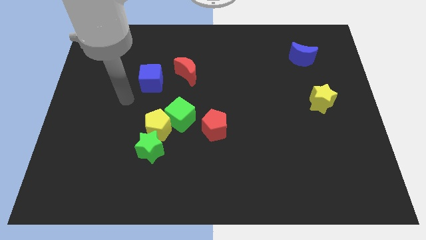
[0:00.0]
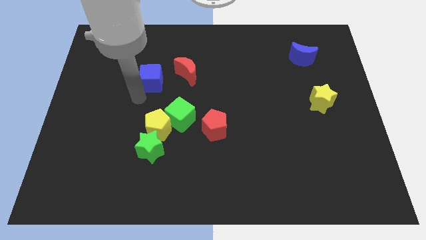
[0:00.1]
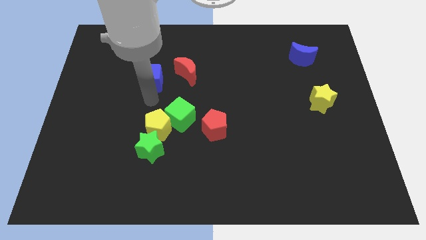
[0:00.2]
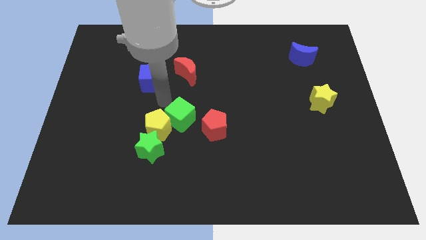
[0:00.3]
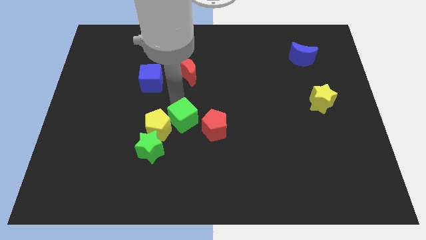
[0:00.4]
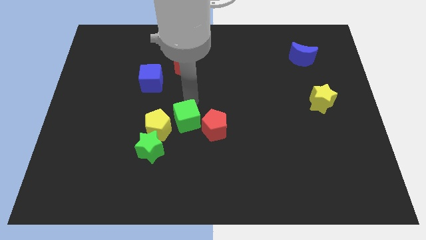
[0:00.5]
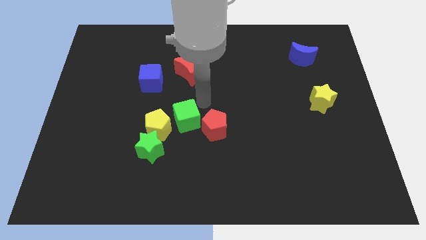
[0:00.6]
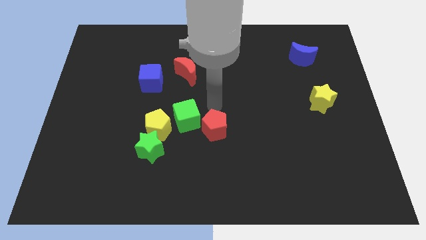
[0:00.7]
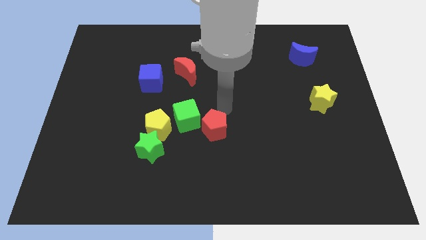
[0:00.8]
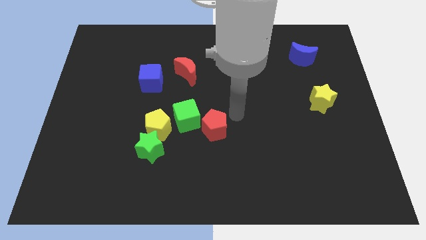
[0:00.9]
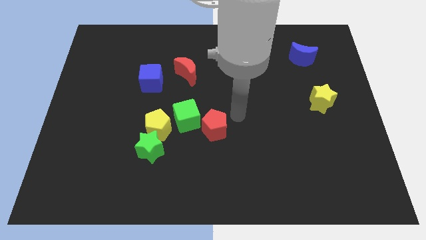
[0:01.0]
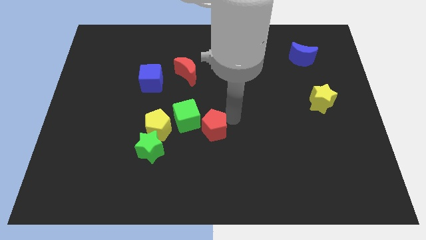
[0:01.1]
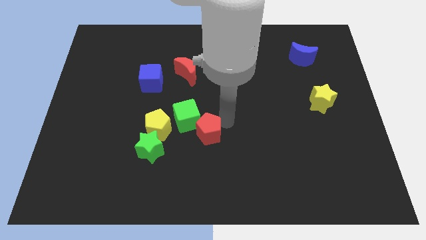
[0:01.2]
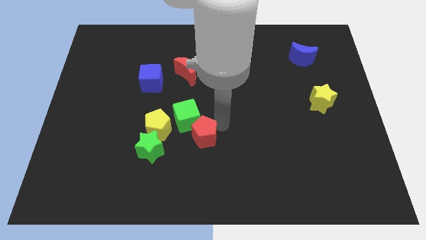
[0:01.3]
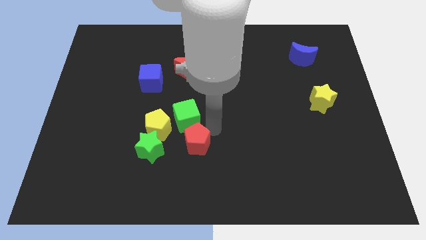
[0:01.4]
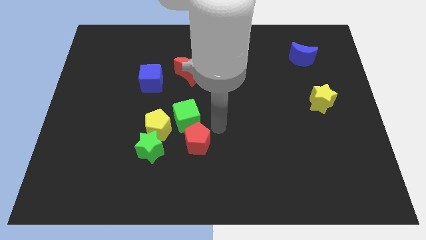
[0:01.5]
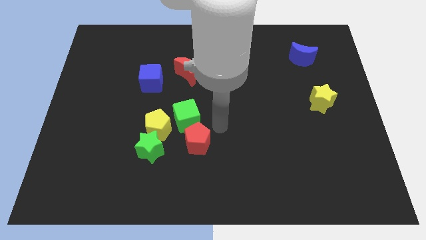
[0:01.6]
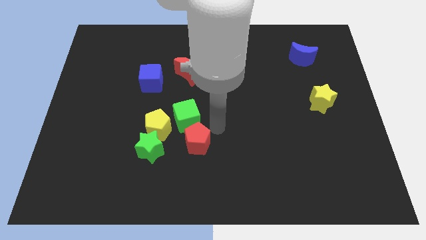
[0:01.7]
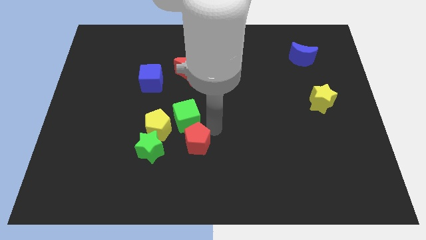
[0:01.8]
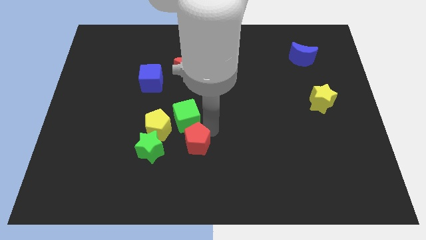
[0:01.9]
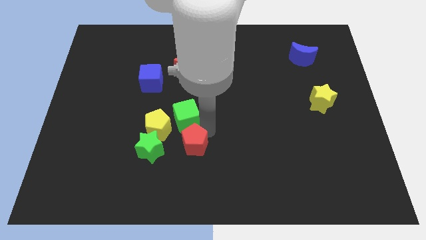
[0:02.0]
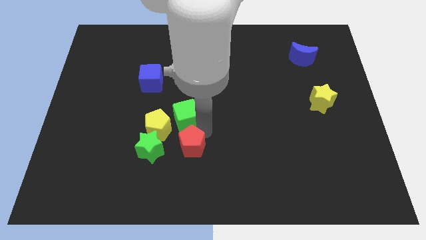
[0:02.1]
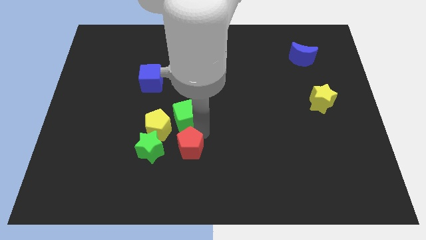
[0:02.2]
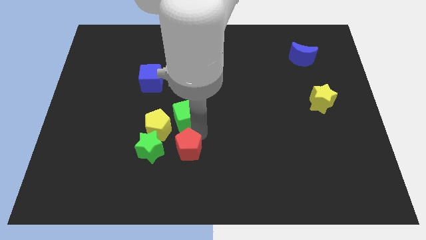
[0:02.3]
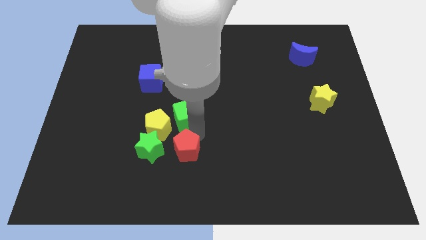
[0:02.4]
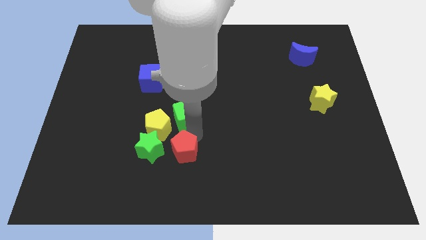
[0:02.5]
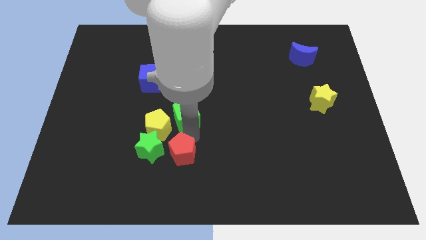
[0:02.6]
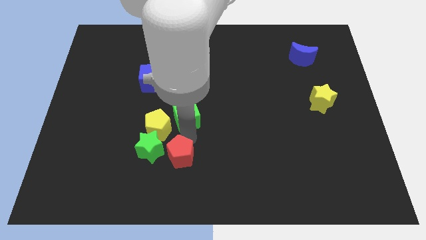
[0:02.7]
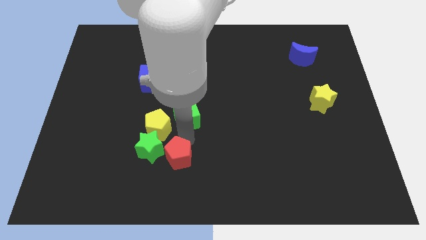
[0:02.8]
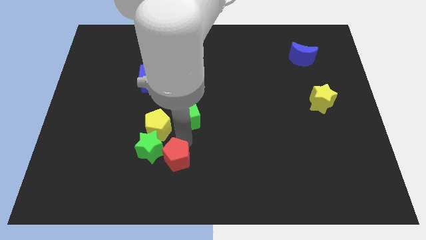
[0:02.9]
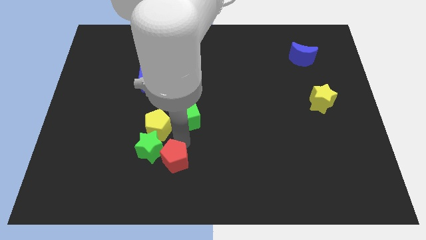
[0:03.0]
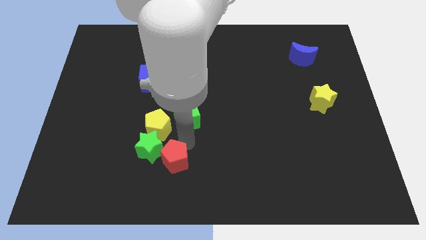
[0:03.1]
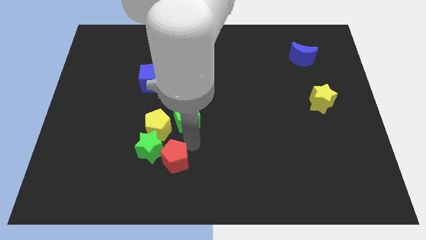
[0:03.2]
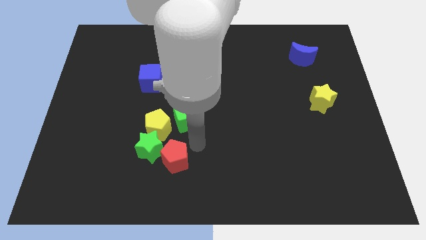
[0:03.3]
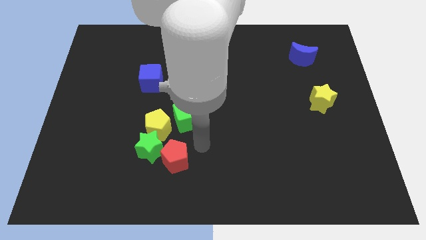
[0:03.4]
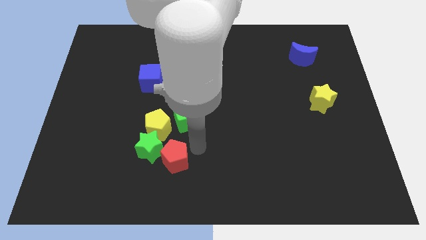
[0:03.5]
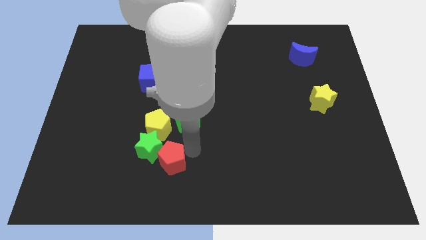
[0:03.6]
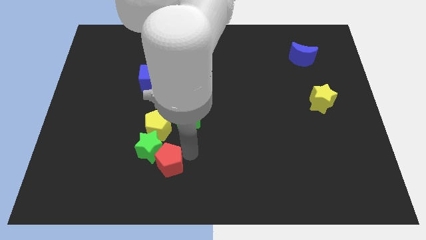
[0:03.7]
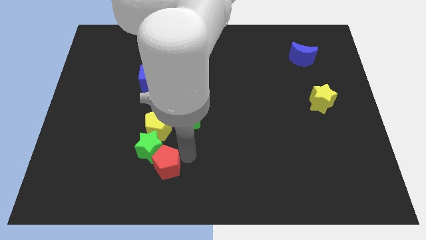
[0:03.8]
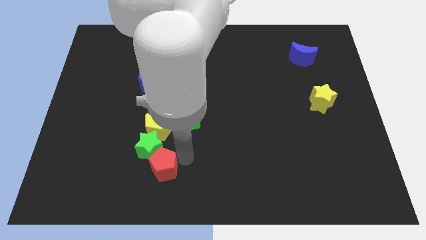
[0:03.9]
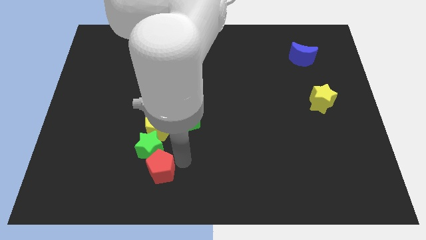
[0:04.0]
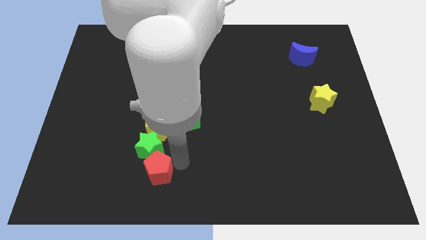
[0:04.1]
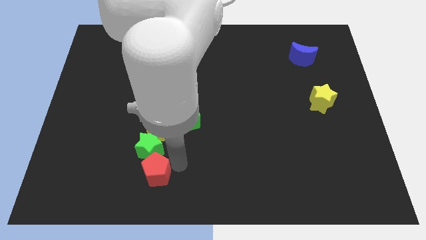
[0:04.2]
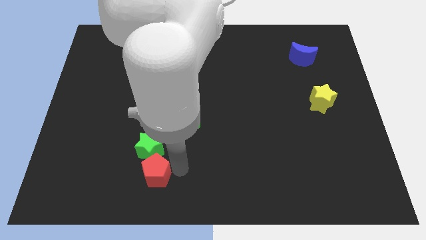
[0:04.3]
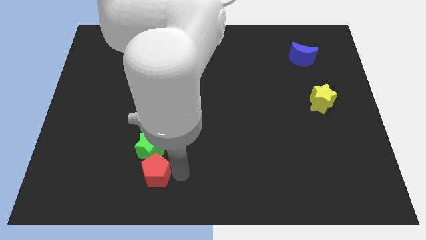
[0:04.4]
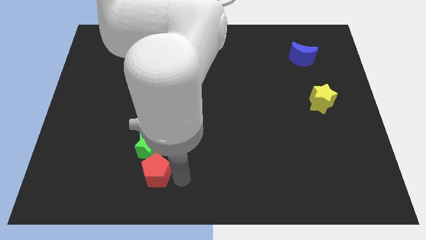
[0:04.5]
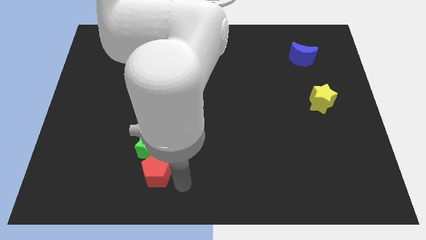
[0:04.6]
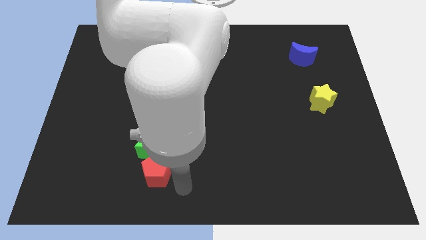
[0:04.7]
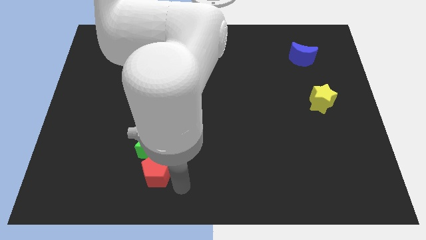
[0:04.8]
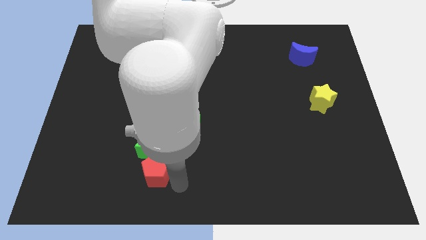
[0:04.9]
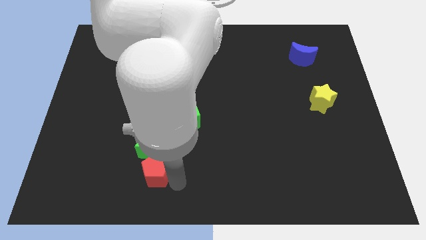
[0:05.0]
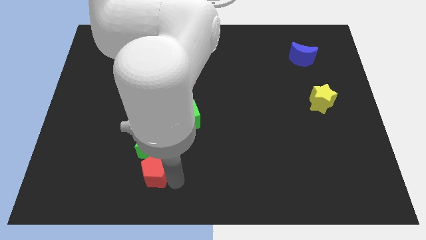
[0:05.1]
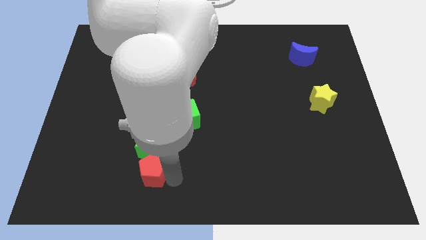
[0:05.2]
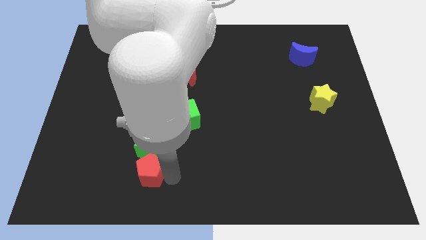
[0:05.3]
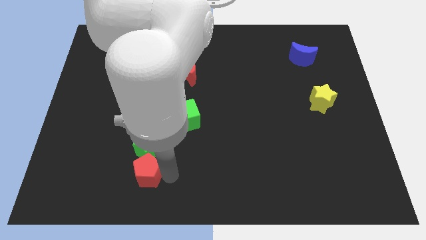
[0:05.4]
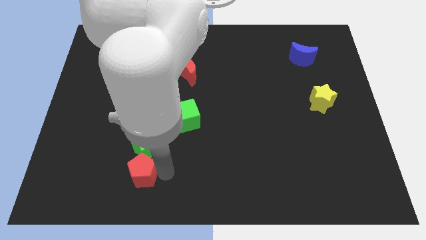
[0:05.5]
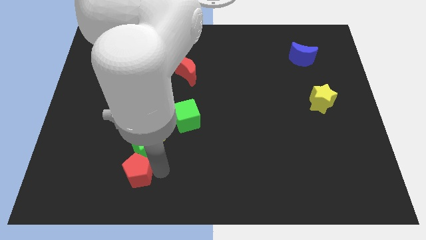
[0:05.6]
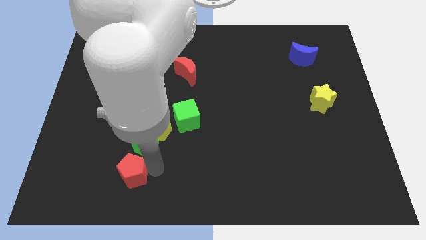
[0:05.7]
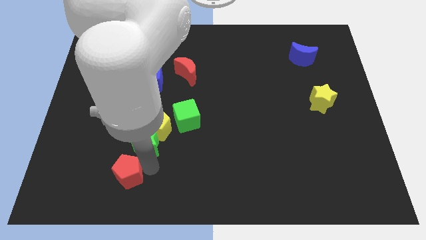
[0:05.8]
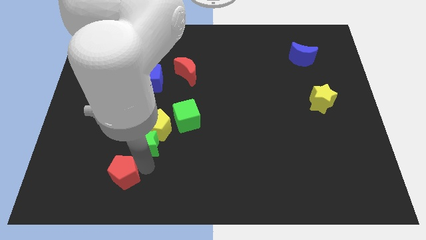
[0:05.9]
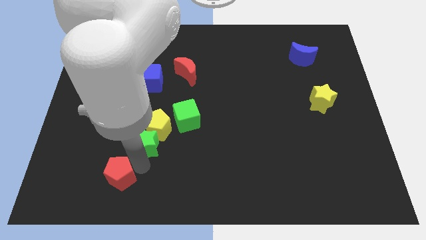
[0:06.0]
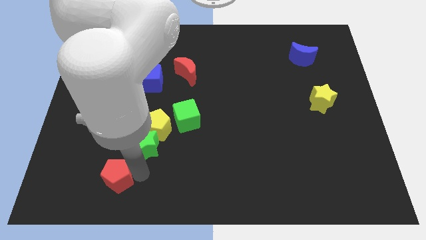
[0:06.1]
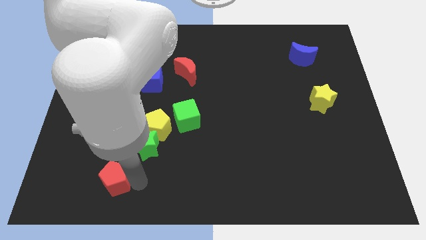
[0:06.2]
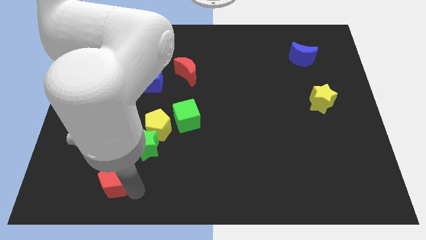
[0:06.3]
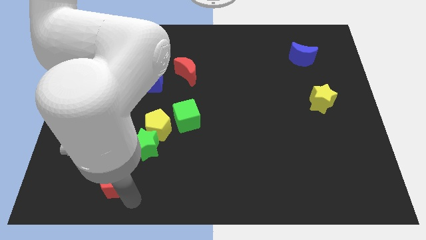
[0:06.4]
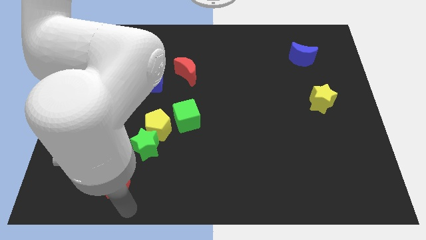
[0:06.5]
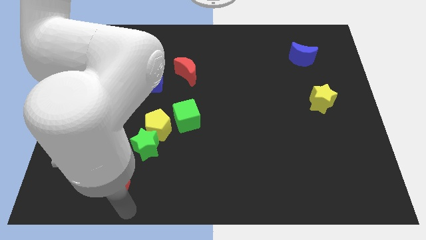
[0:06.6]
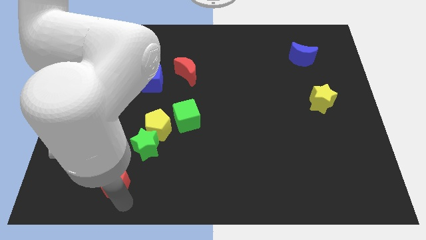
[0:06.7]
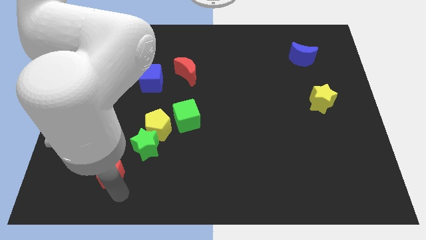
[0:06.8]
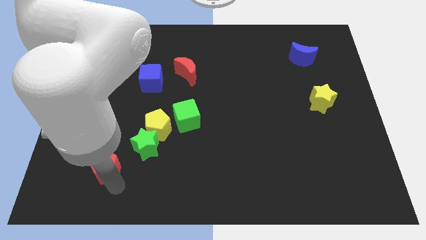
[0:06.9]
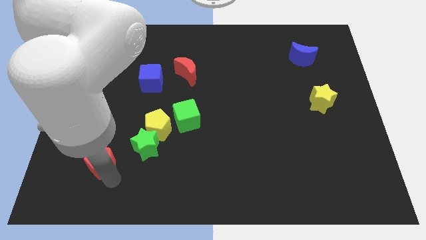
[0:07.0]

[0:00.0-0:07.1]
put the red pentagon to the left side of the green star
